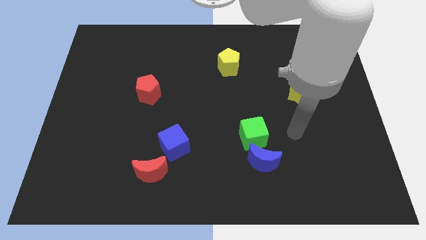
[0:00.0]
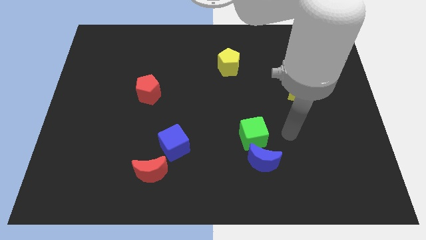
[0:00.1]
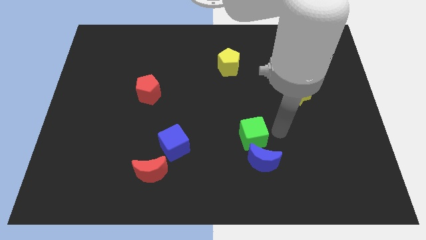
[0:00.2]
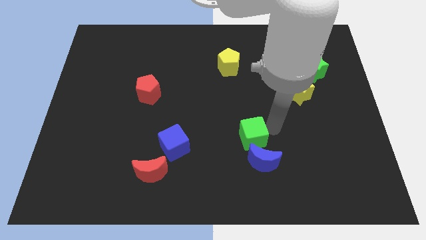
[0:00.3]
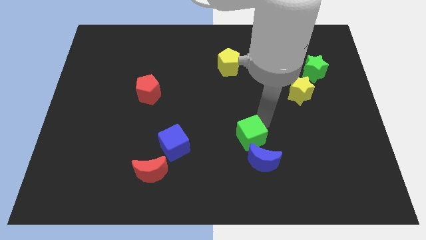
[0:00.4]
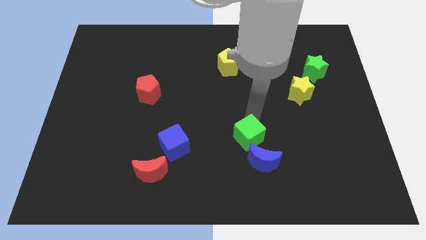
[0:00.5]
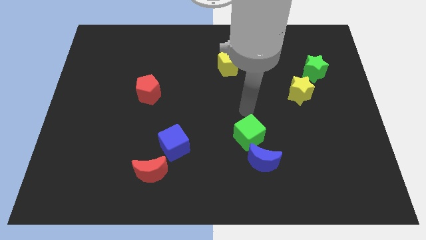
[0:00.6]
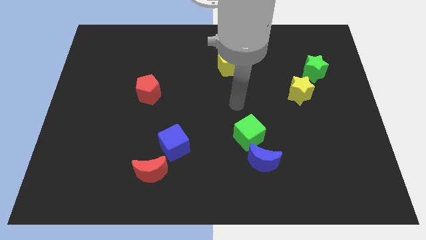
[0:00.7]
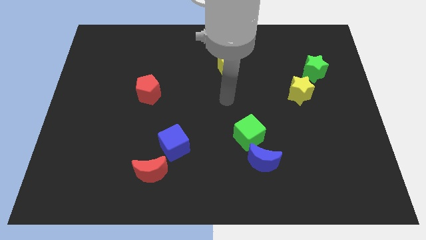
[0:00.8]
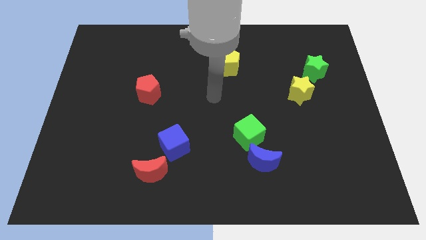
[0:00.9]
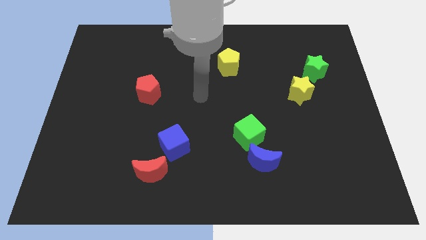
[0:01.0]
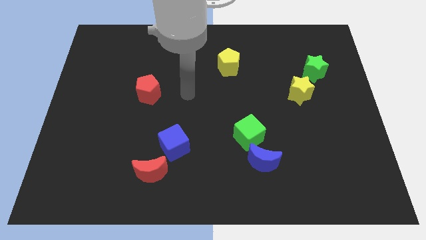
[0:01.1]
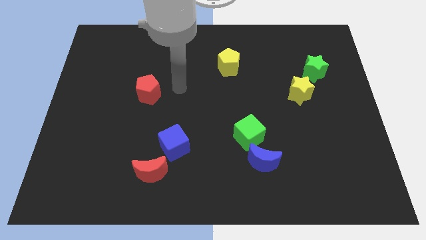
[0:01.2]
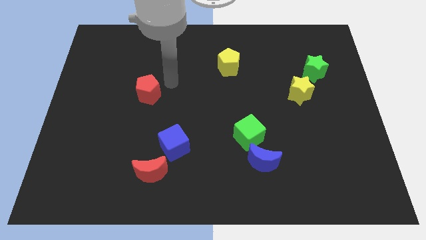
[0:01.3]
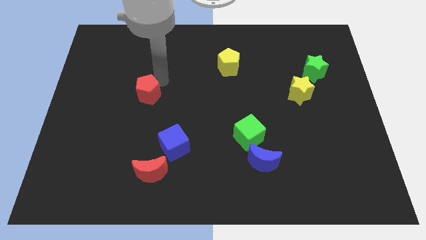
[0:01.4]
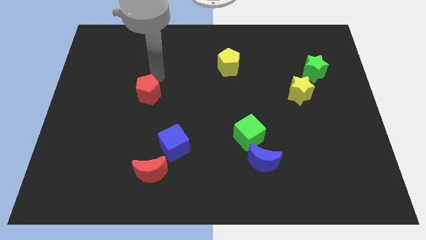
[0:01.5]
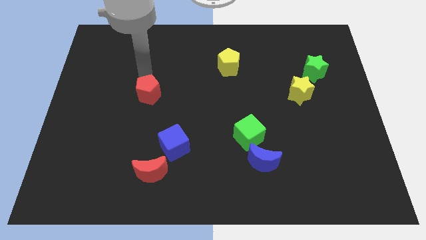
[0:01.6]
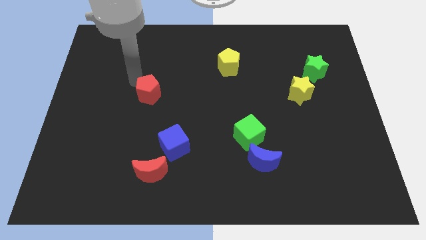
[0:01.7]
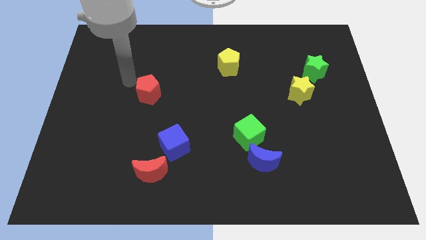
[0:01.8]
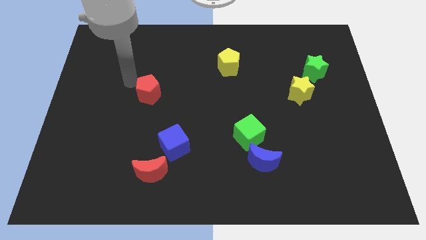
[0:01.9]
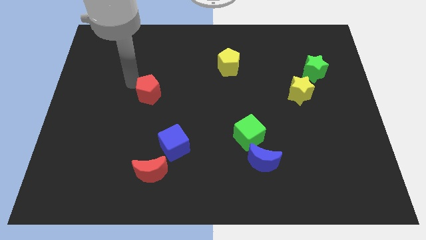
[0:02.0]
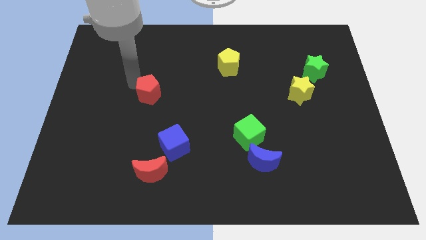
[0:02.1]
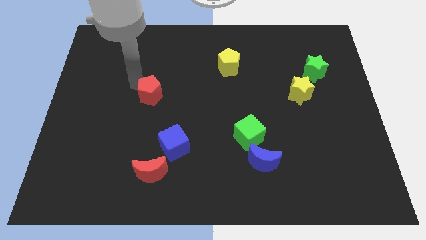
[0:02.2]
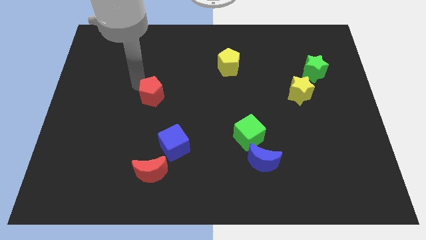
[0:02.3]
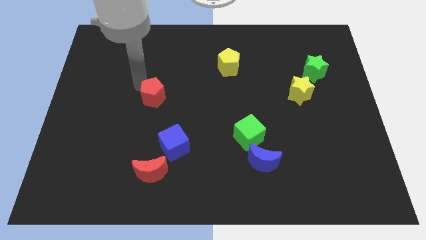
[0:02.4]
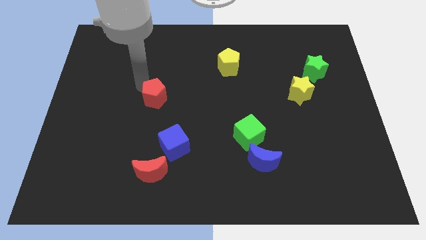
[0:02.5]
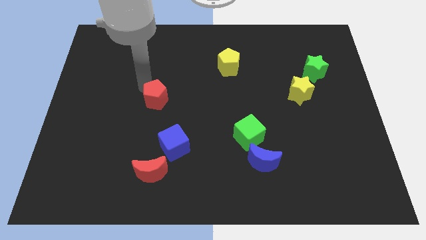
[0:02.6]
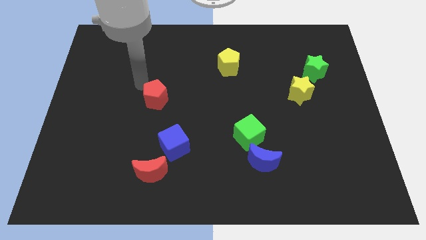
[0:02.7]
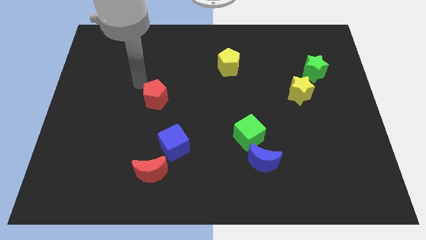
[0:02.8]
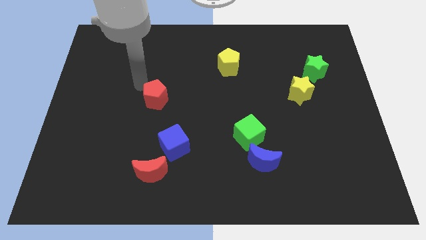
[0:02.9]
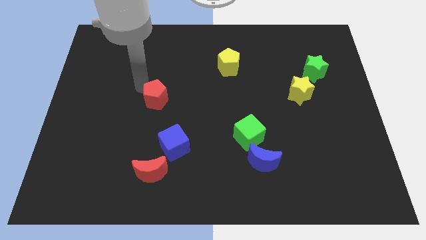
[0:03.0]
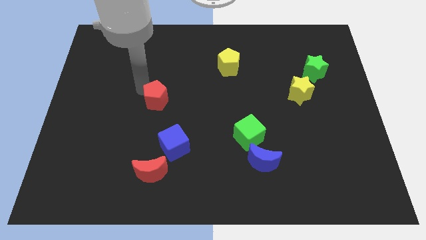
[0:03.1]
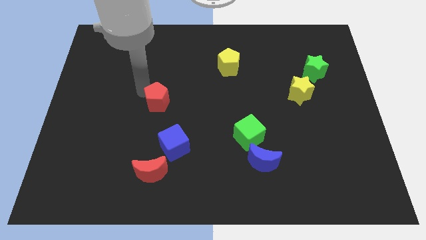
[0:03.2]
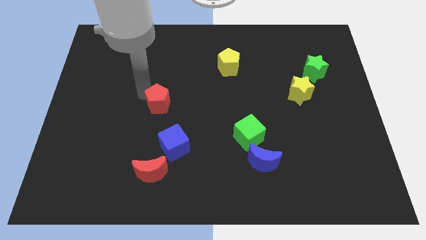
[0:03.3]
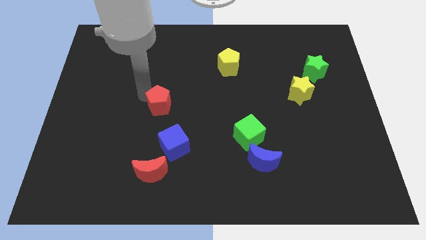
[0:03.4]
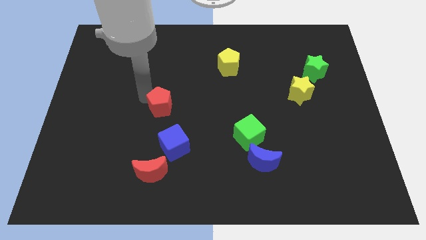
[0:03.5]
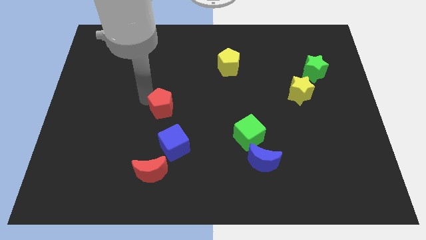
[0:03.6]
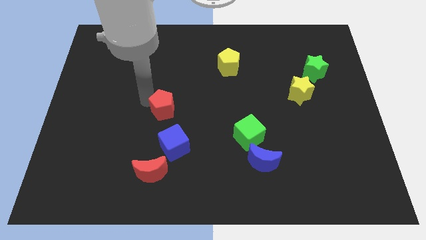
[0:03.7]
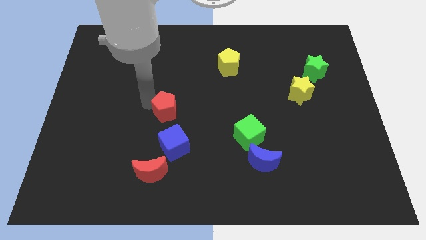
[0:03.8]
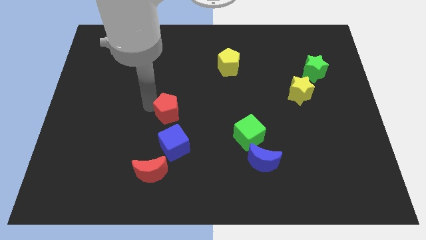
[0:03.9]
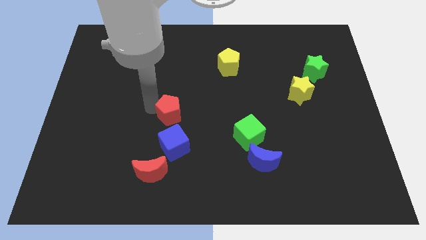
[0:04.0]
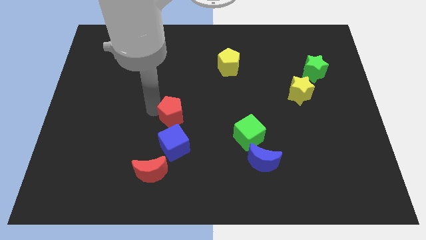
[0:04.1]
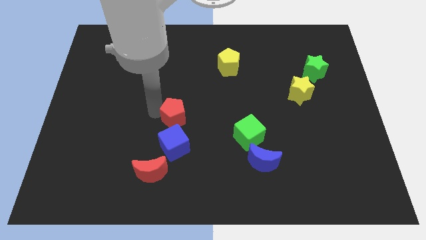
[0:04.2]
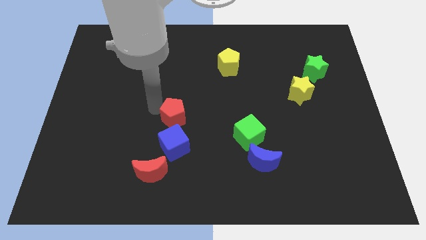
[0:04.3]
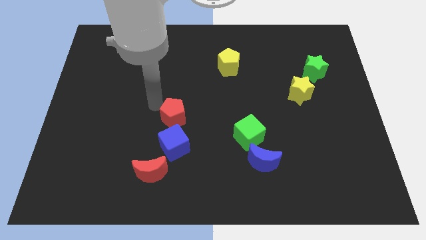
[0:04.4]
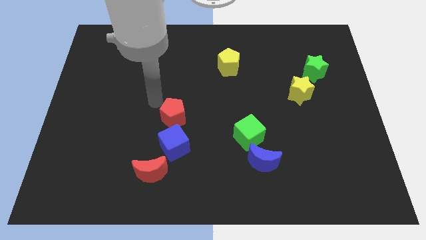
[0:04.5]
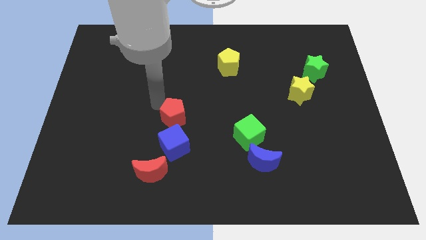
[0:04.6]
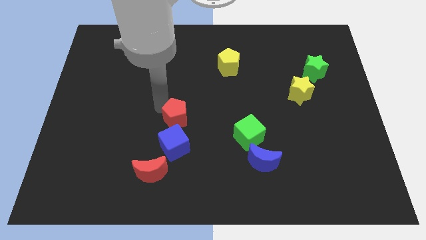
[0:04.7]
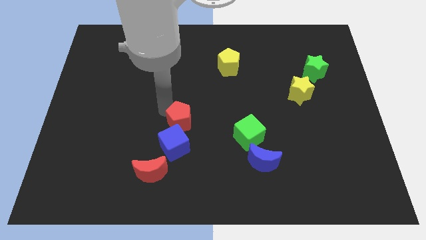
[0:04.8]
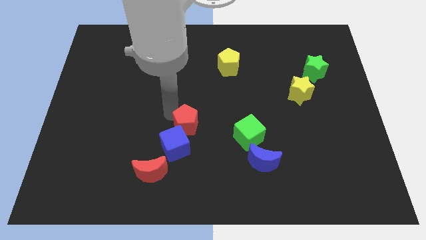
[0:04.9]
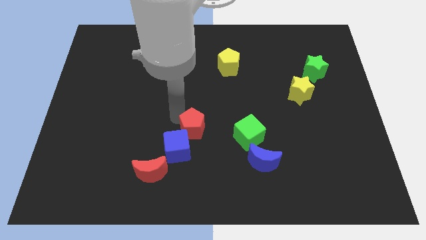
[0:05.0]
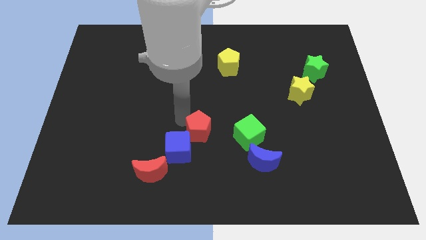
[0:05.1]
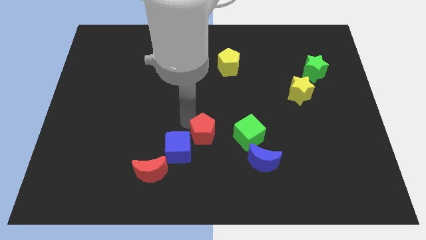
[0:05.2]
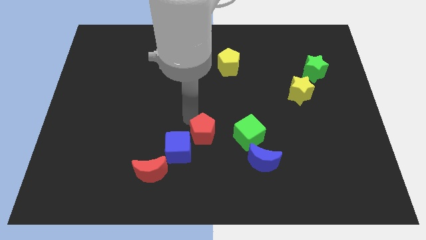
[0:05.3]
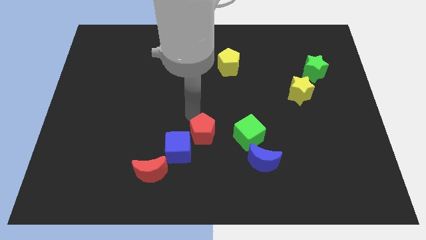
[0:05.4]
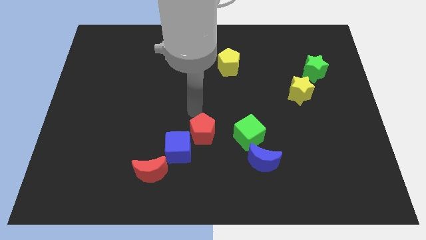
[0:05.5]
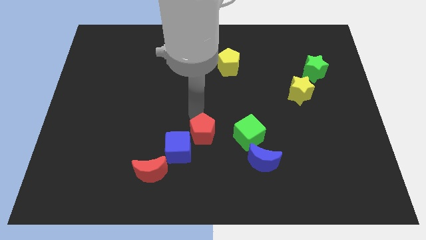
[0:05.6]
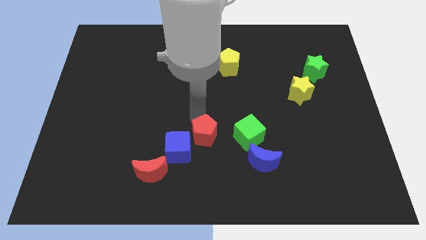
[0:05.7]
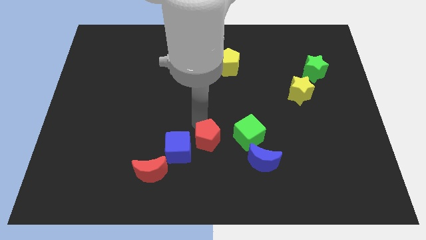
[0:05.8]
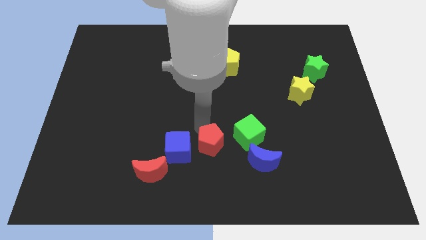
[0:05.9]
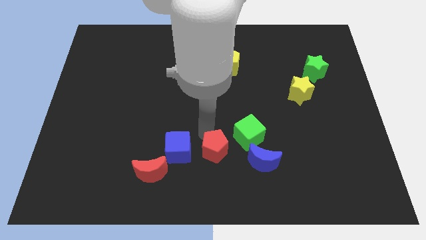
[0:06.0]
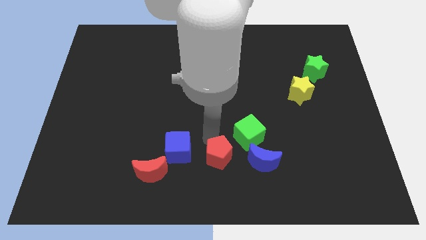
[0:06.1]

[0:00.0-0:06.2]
push the red pentagon to the bottom

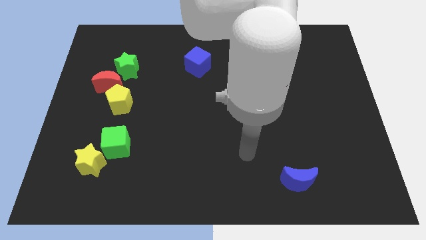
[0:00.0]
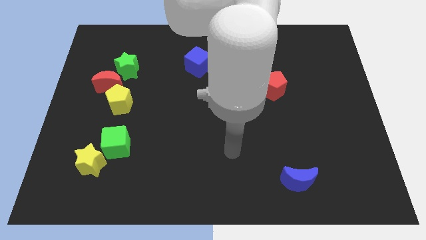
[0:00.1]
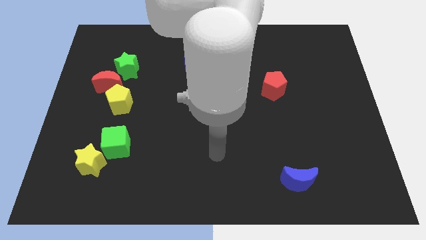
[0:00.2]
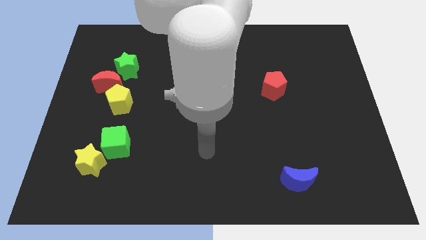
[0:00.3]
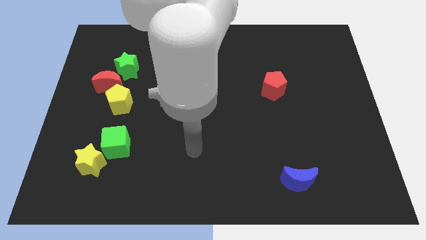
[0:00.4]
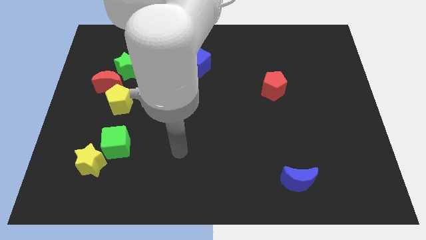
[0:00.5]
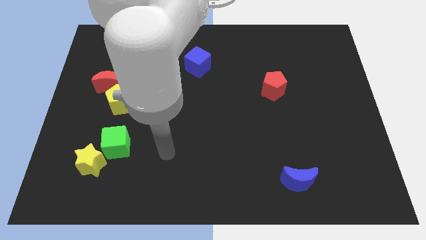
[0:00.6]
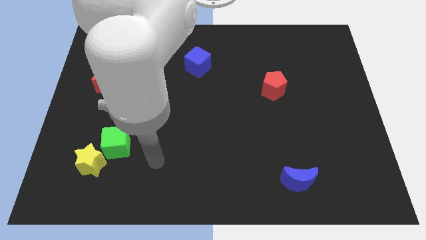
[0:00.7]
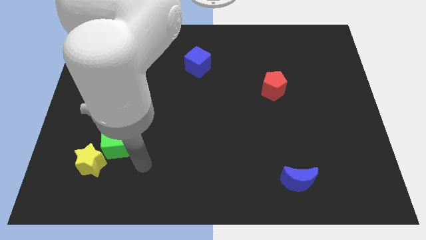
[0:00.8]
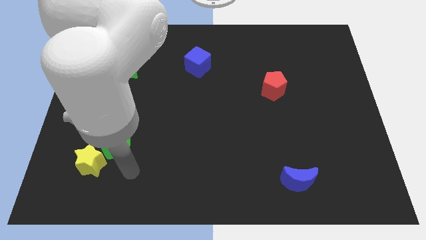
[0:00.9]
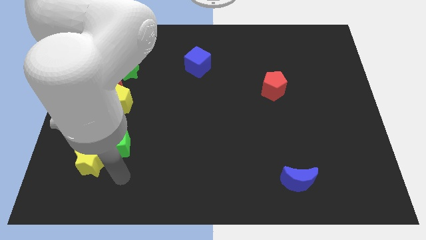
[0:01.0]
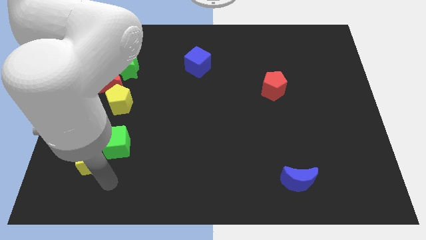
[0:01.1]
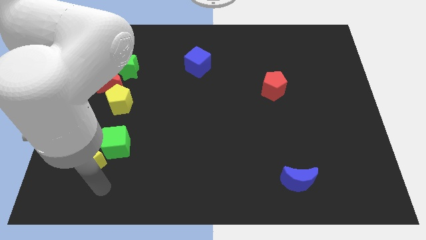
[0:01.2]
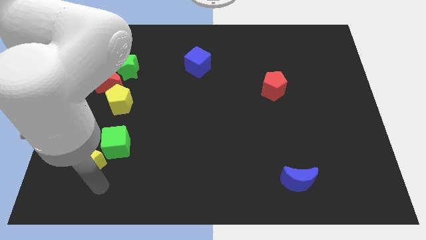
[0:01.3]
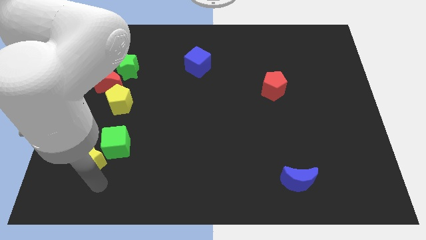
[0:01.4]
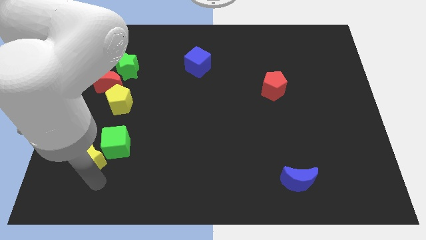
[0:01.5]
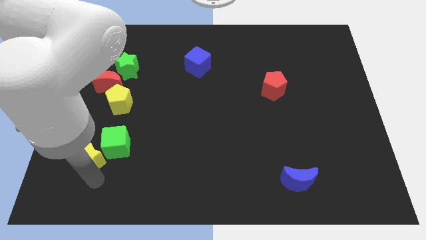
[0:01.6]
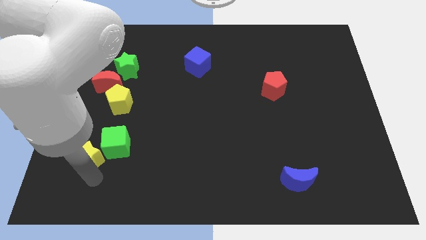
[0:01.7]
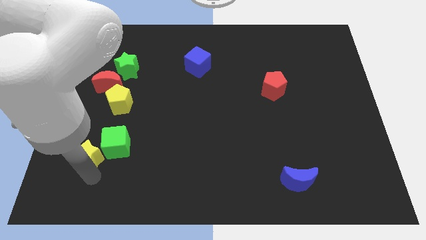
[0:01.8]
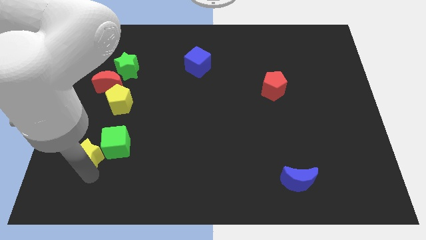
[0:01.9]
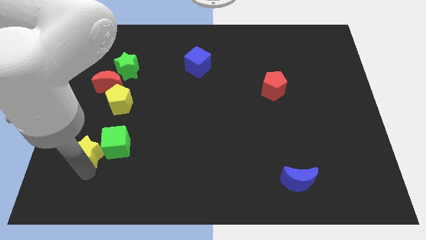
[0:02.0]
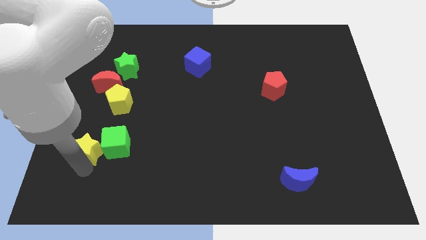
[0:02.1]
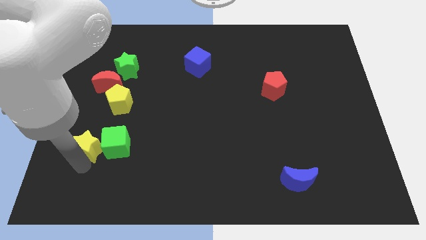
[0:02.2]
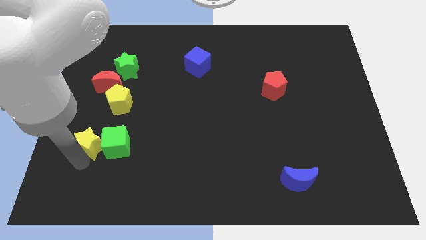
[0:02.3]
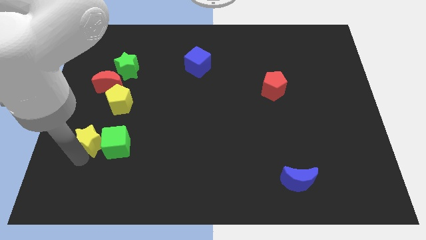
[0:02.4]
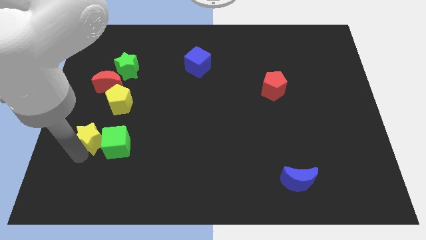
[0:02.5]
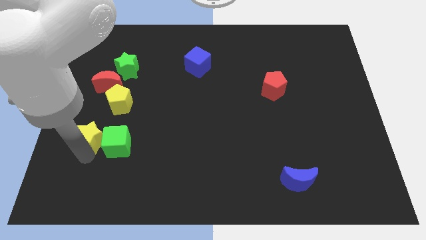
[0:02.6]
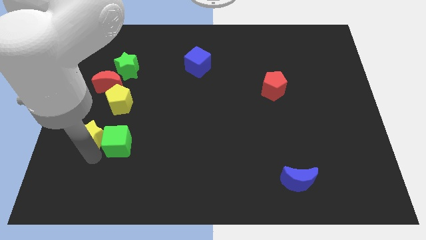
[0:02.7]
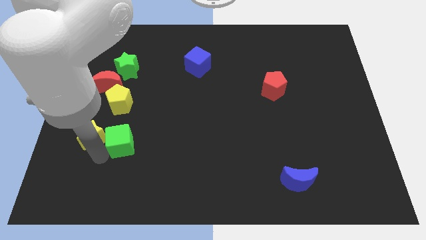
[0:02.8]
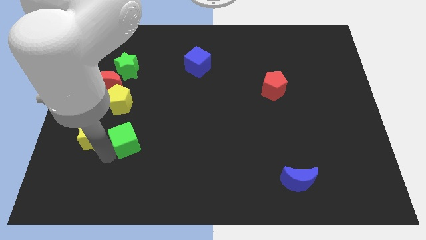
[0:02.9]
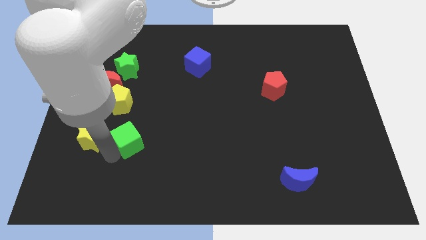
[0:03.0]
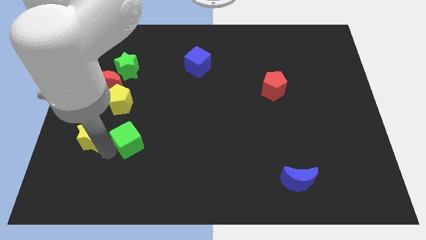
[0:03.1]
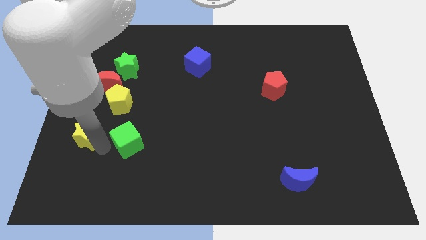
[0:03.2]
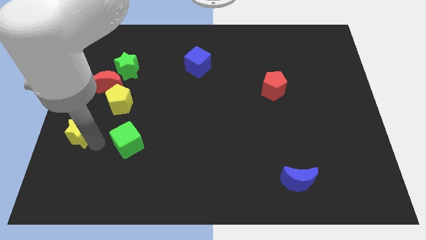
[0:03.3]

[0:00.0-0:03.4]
push the yellow star to the left side of the board
